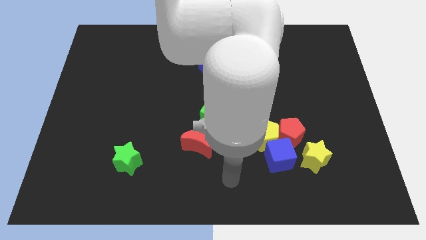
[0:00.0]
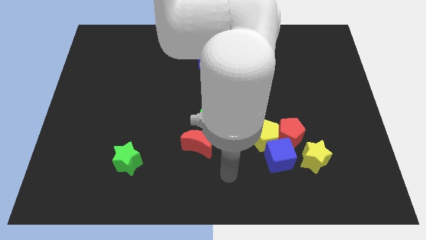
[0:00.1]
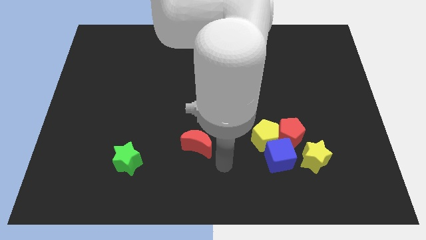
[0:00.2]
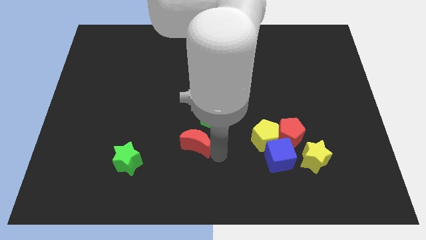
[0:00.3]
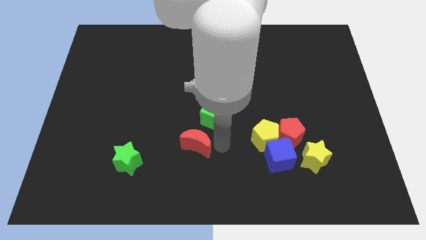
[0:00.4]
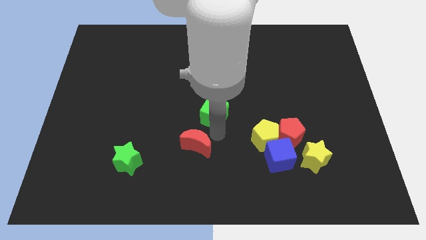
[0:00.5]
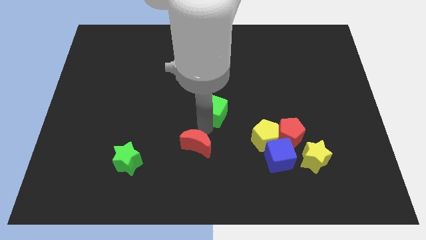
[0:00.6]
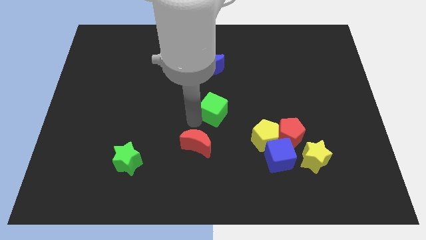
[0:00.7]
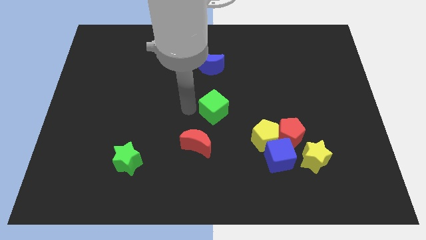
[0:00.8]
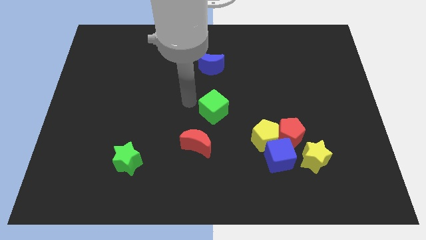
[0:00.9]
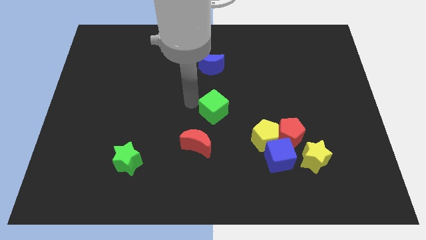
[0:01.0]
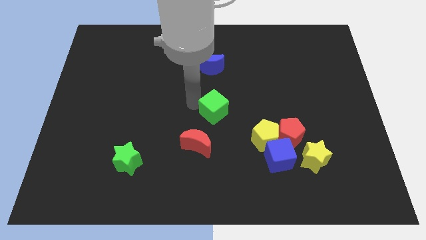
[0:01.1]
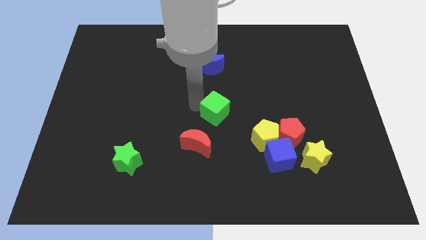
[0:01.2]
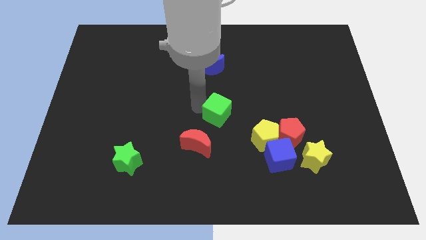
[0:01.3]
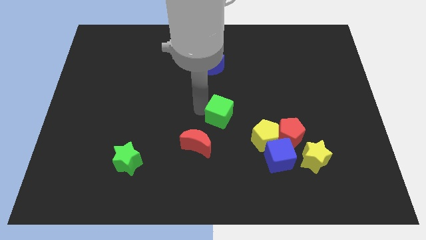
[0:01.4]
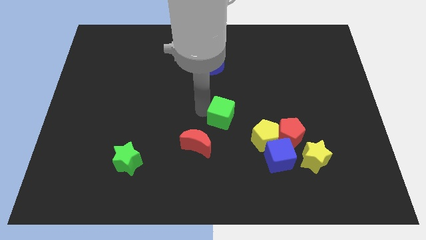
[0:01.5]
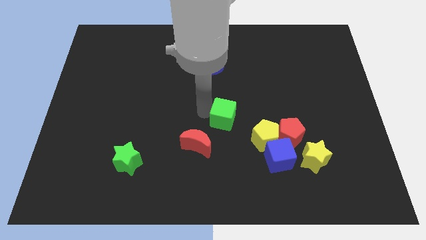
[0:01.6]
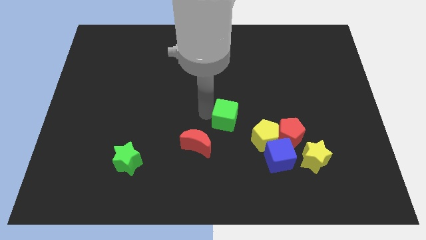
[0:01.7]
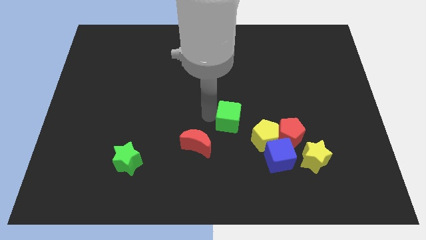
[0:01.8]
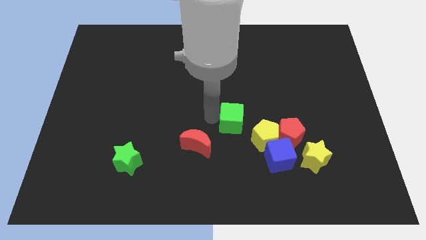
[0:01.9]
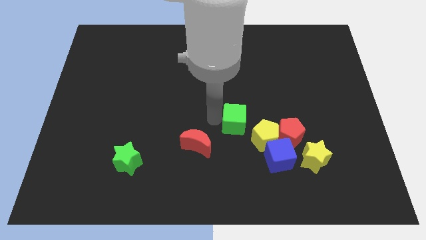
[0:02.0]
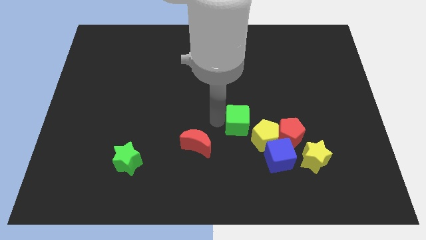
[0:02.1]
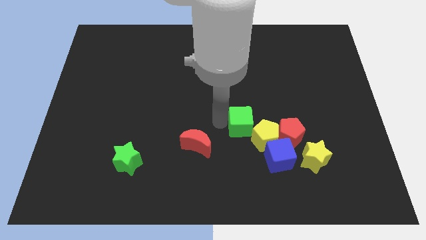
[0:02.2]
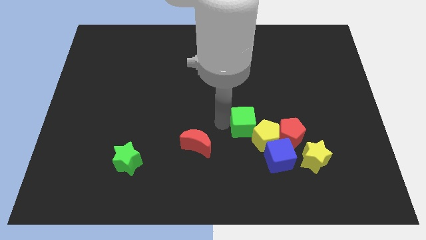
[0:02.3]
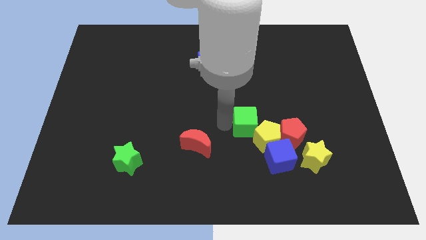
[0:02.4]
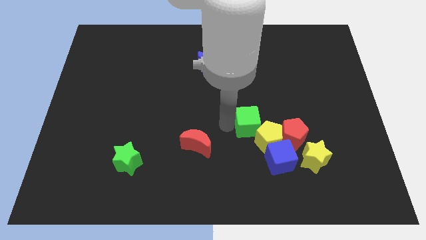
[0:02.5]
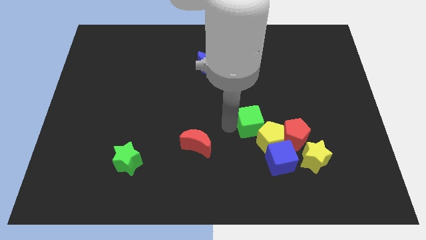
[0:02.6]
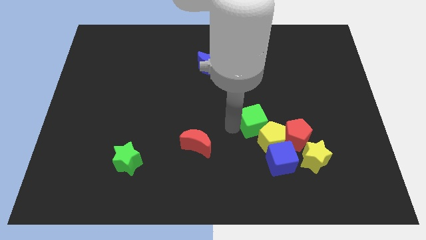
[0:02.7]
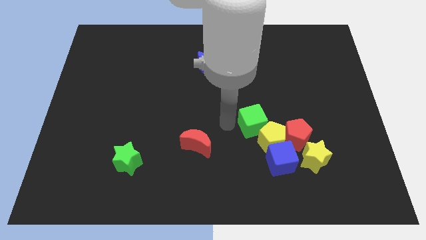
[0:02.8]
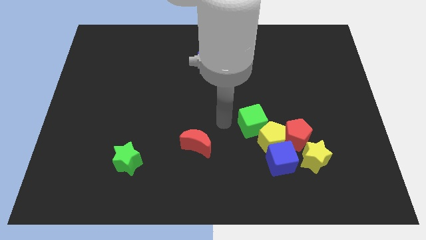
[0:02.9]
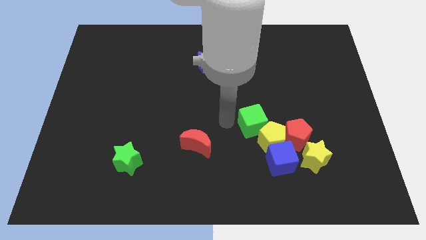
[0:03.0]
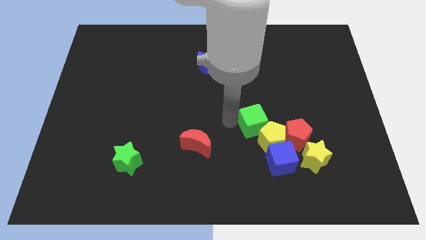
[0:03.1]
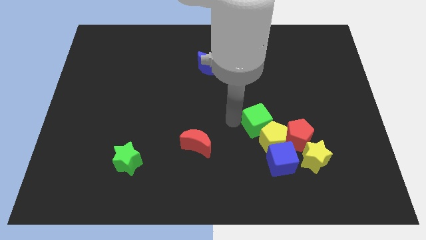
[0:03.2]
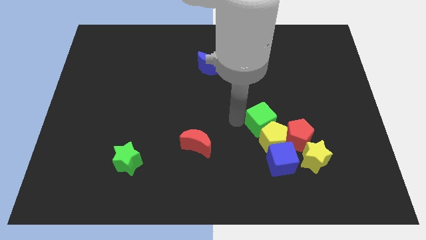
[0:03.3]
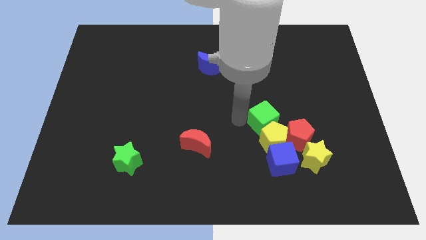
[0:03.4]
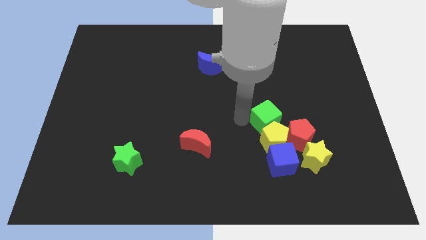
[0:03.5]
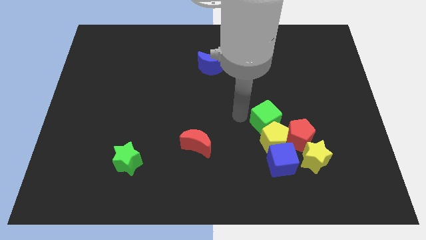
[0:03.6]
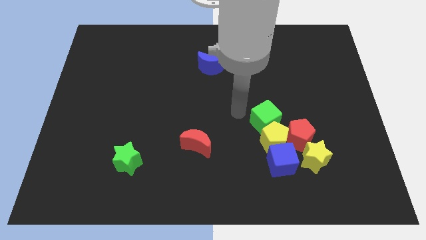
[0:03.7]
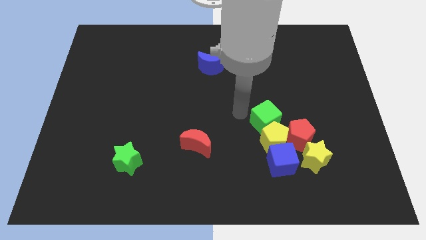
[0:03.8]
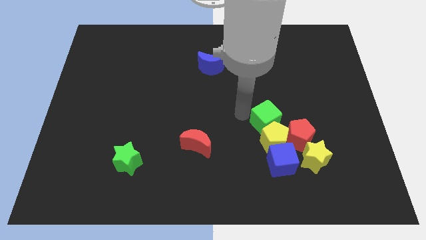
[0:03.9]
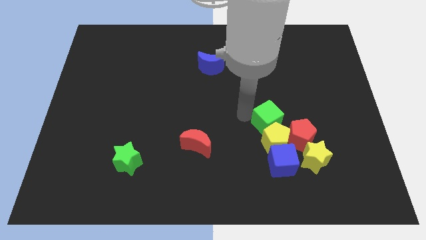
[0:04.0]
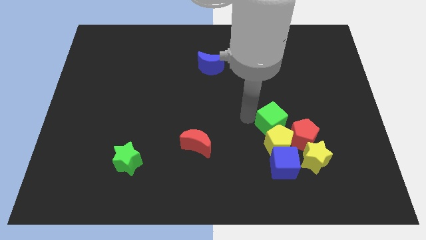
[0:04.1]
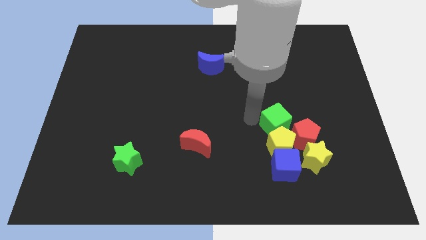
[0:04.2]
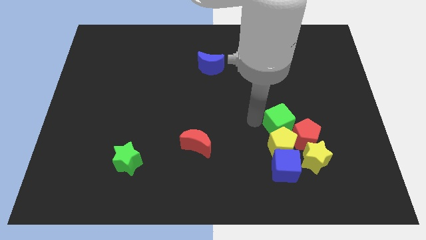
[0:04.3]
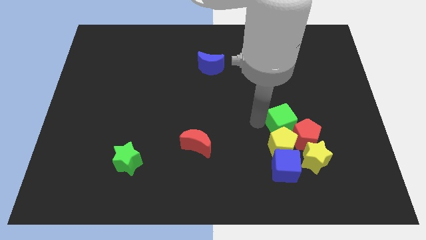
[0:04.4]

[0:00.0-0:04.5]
put the green cube close to the red pentagon

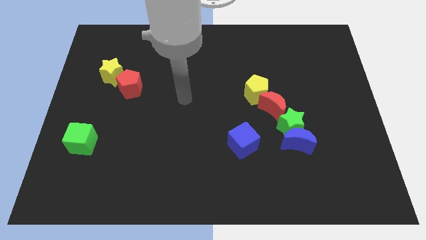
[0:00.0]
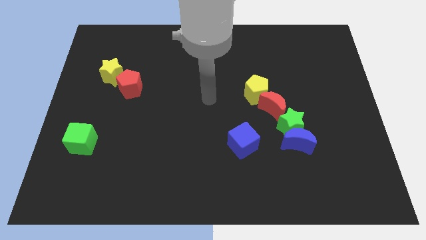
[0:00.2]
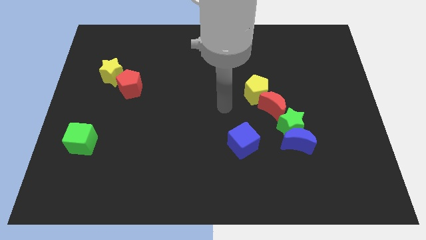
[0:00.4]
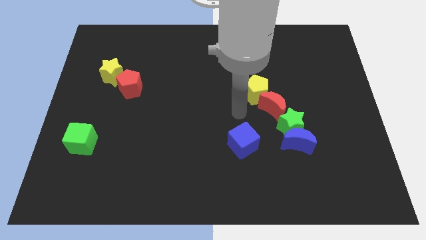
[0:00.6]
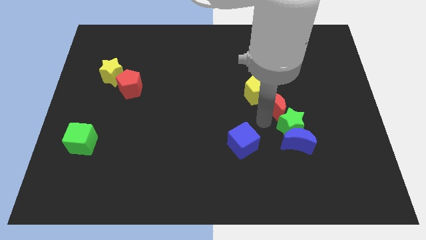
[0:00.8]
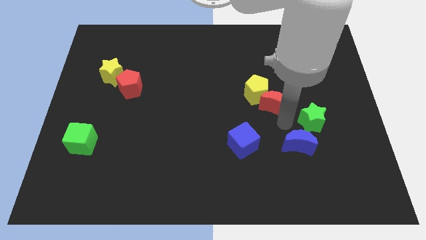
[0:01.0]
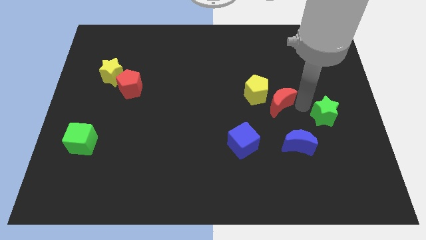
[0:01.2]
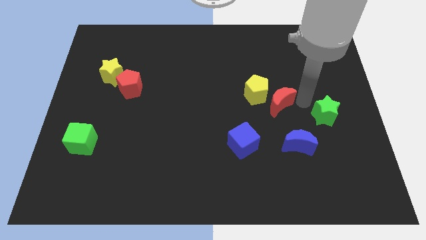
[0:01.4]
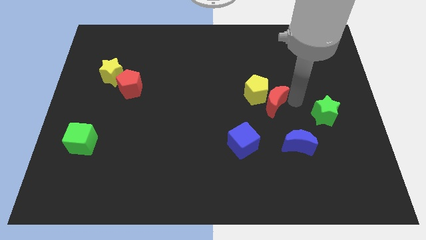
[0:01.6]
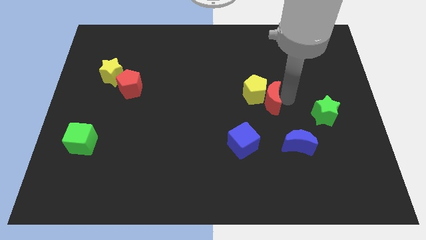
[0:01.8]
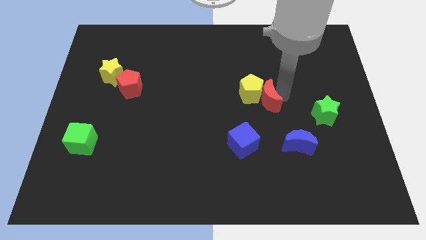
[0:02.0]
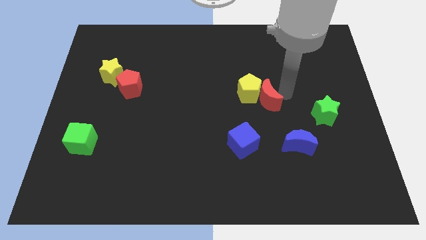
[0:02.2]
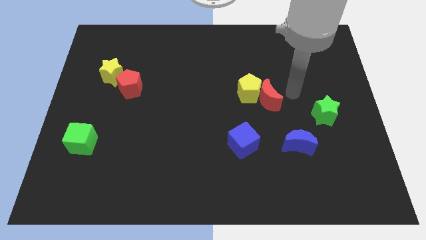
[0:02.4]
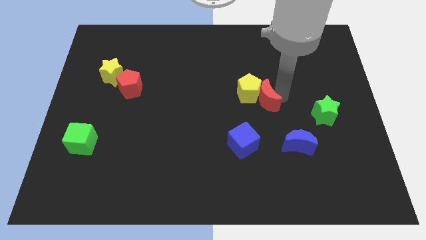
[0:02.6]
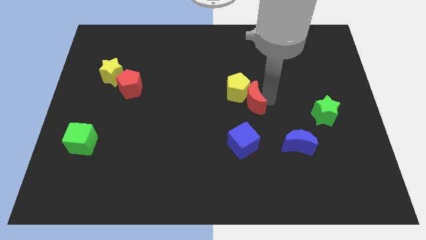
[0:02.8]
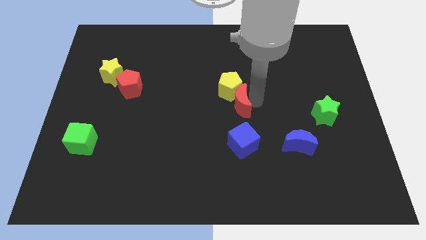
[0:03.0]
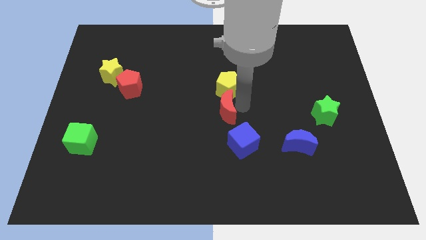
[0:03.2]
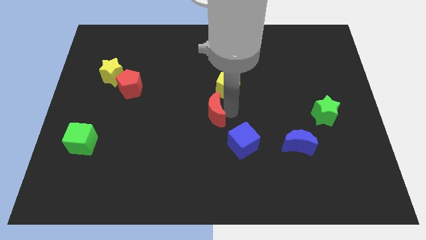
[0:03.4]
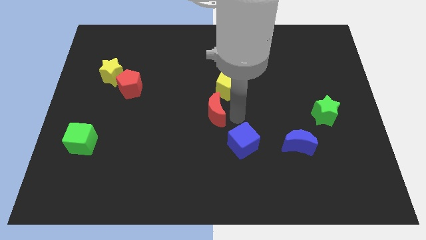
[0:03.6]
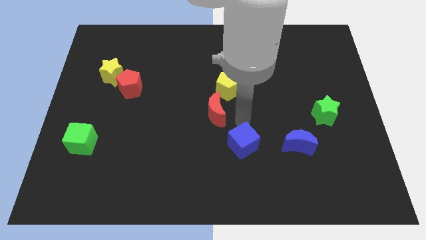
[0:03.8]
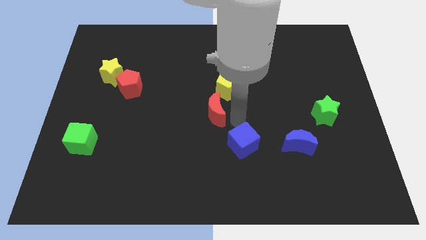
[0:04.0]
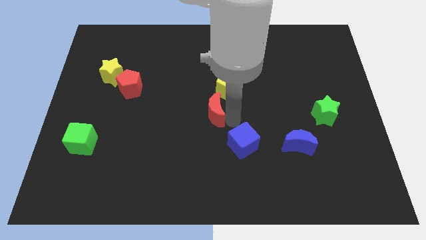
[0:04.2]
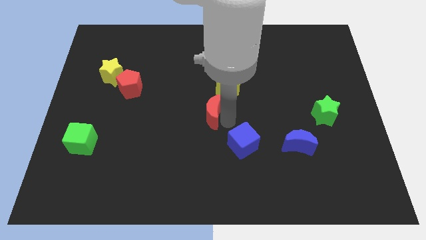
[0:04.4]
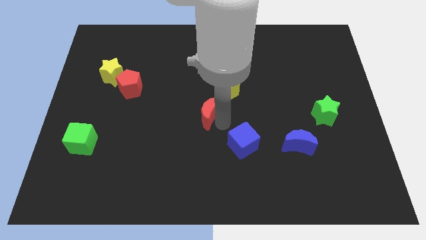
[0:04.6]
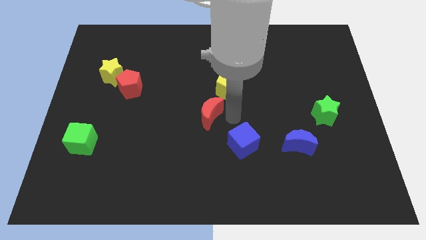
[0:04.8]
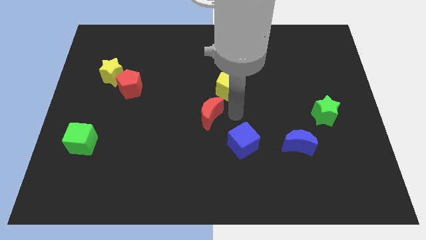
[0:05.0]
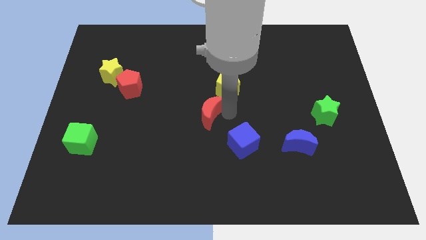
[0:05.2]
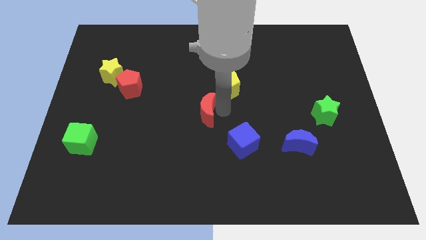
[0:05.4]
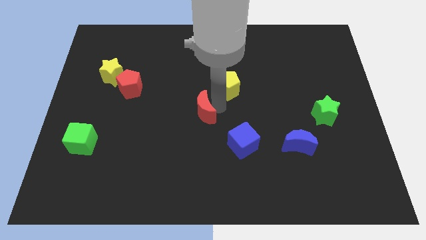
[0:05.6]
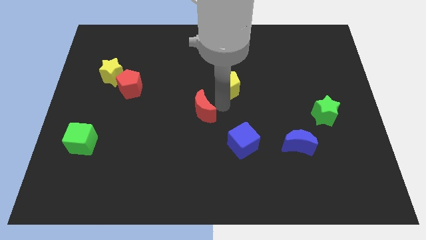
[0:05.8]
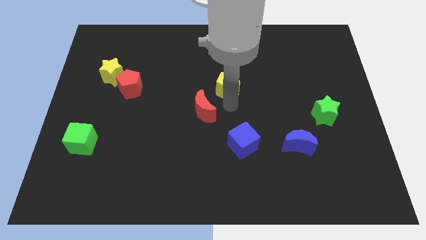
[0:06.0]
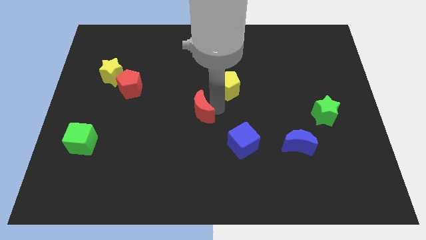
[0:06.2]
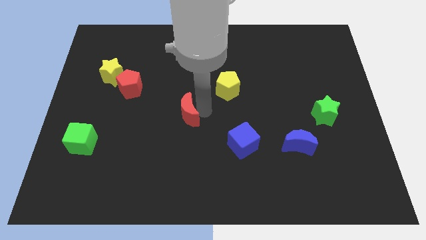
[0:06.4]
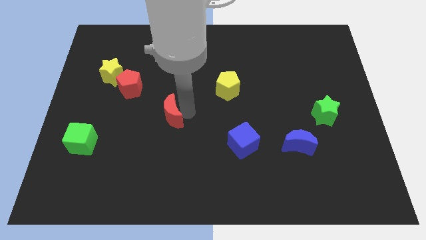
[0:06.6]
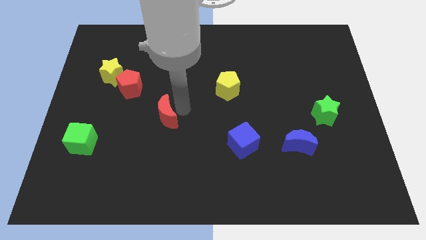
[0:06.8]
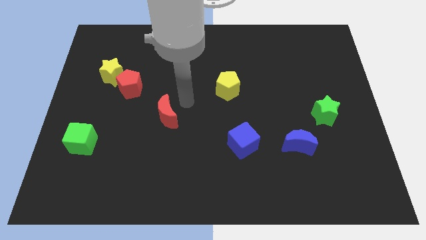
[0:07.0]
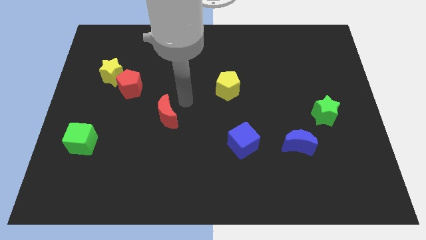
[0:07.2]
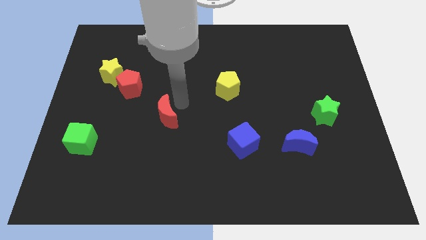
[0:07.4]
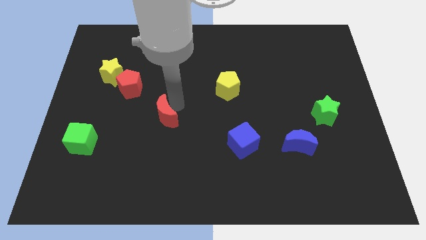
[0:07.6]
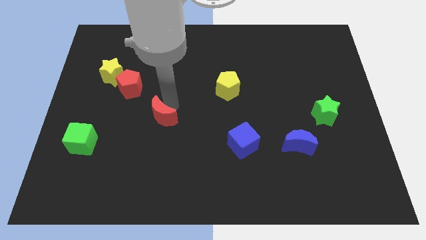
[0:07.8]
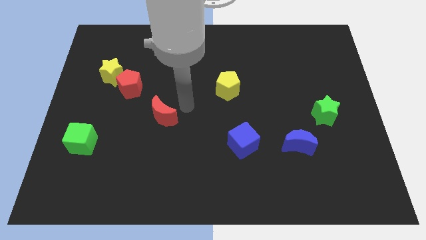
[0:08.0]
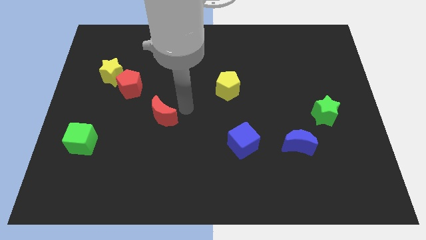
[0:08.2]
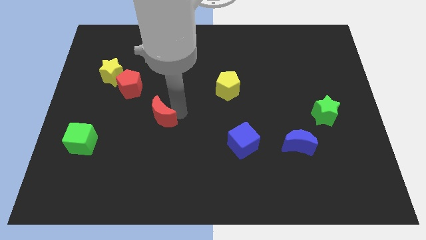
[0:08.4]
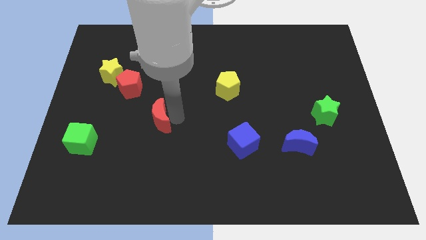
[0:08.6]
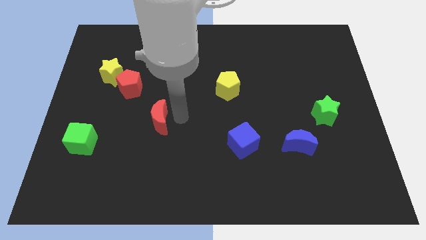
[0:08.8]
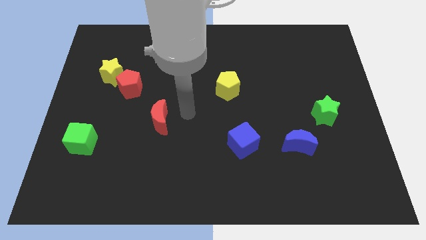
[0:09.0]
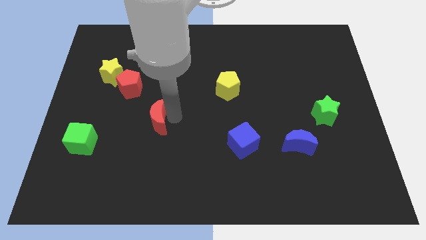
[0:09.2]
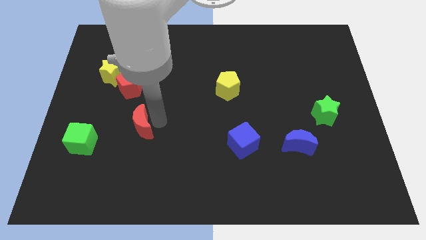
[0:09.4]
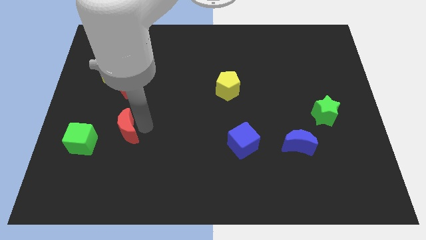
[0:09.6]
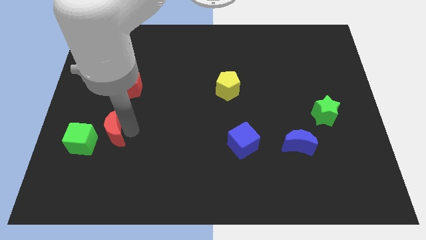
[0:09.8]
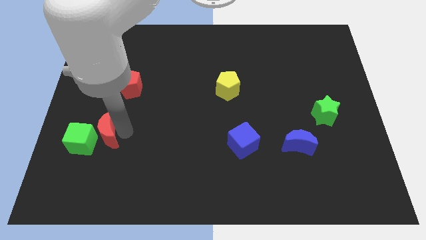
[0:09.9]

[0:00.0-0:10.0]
push the red moon to the green cube
